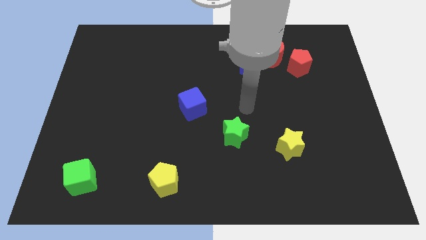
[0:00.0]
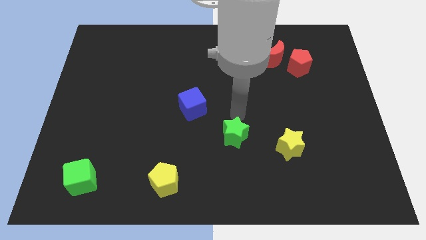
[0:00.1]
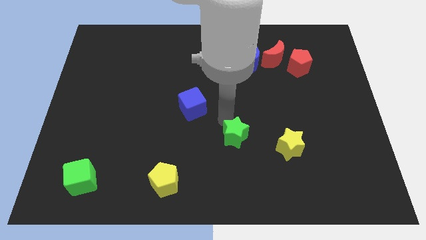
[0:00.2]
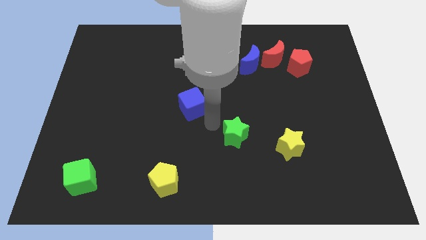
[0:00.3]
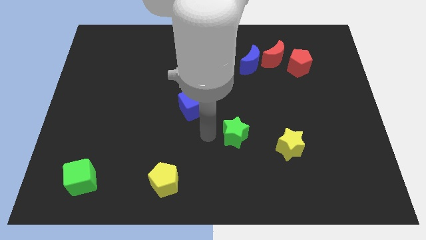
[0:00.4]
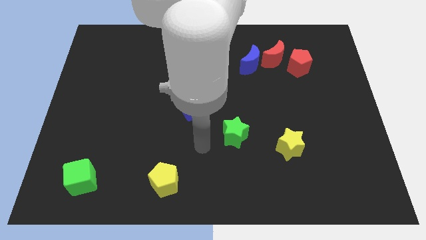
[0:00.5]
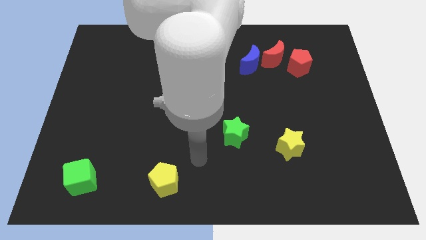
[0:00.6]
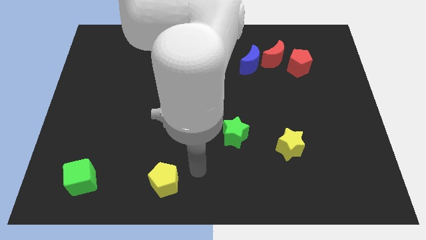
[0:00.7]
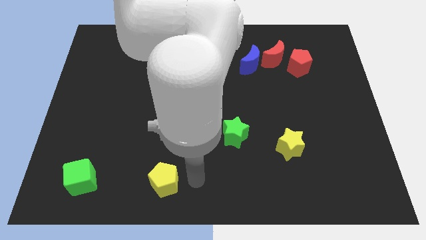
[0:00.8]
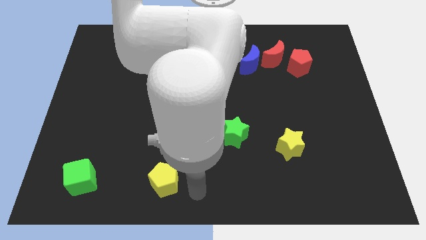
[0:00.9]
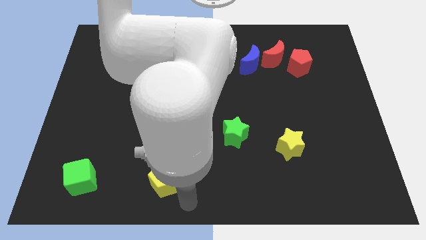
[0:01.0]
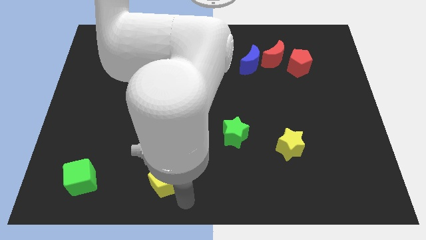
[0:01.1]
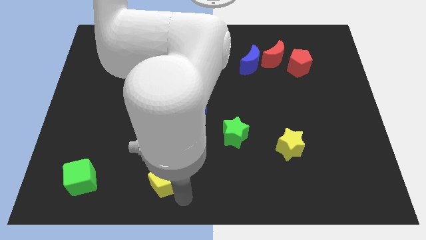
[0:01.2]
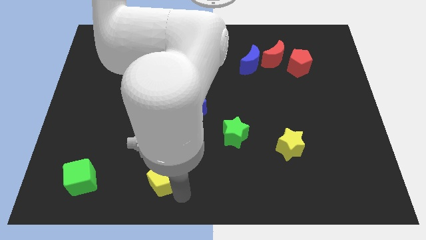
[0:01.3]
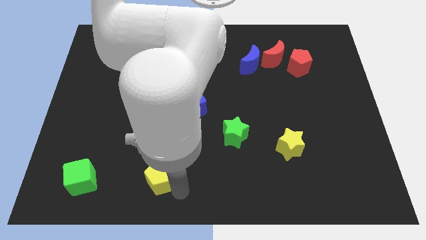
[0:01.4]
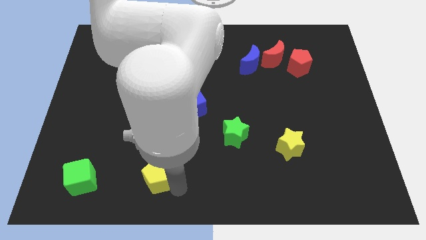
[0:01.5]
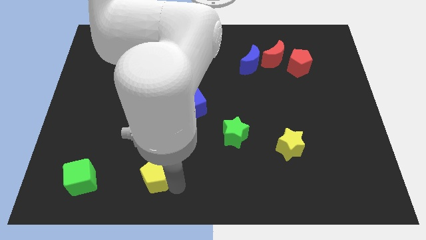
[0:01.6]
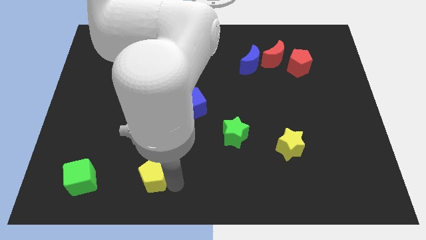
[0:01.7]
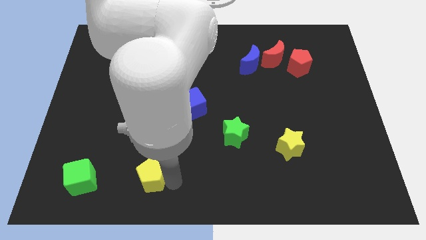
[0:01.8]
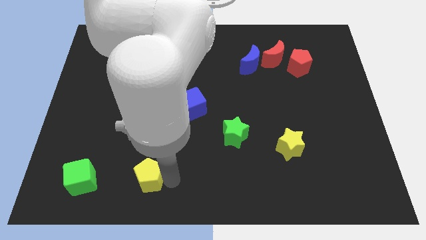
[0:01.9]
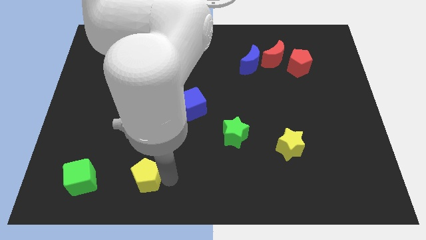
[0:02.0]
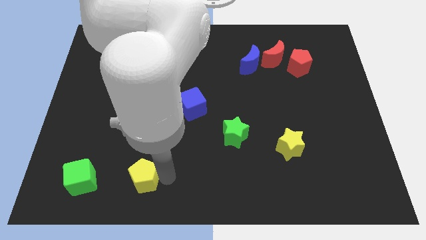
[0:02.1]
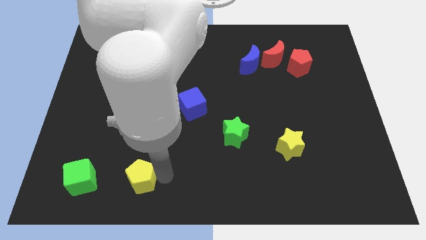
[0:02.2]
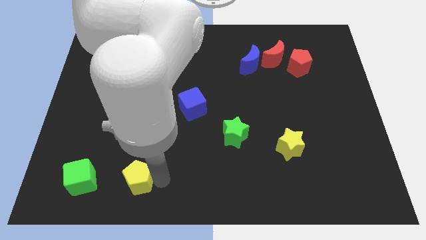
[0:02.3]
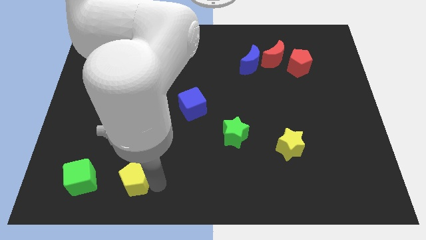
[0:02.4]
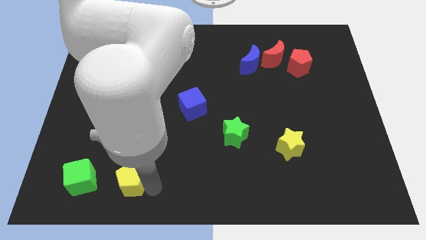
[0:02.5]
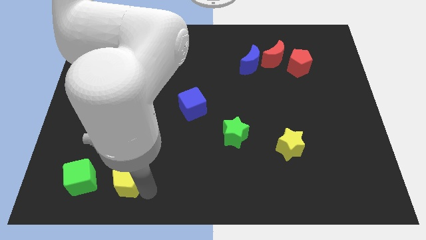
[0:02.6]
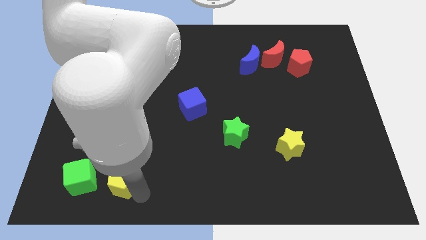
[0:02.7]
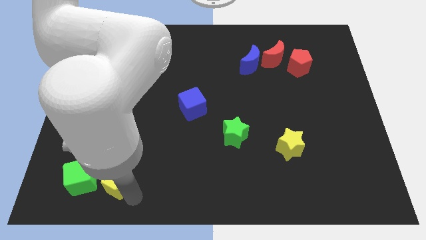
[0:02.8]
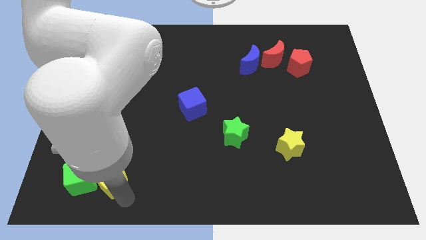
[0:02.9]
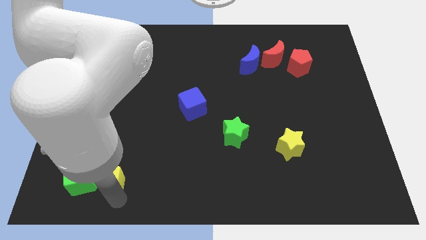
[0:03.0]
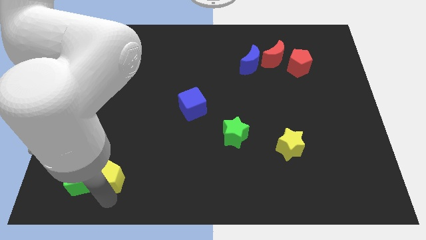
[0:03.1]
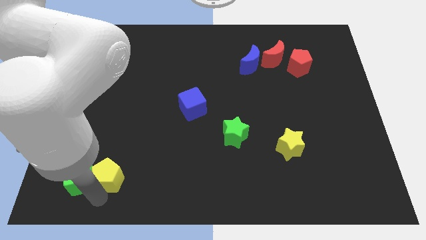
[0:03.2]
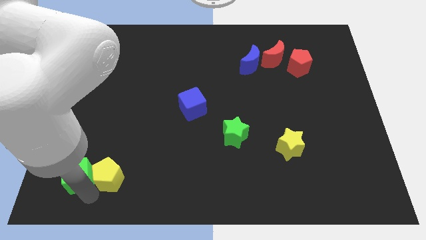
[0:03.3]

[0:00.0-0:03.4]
push the yellow pentagon slightly up and to the left

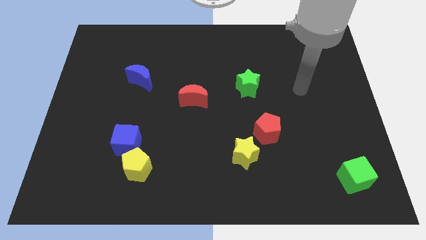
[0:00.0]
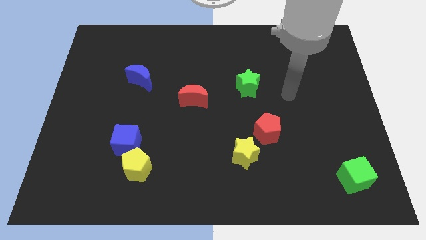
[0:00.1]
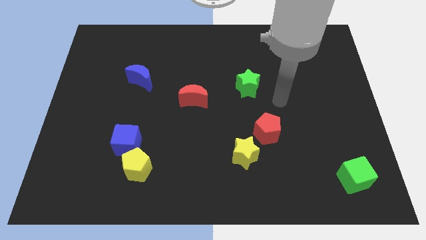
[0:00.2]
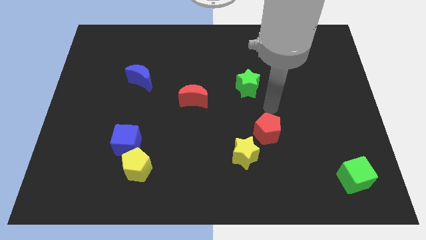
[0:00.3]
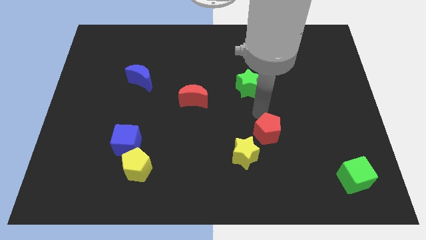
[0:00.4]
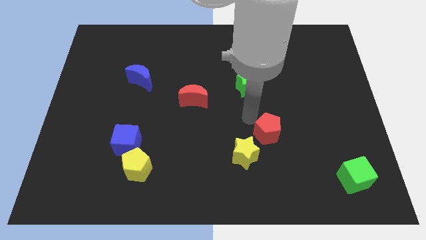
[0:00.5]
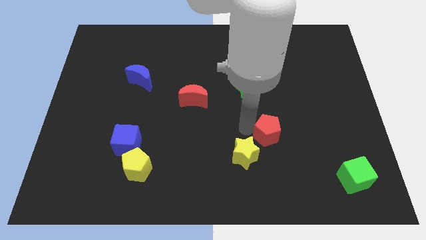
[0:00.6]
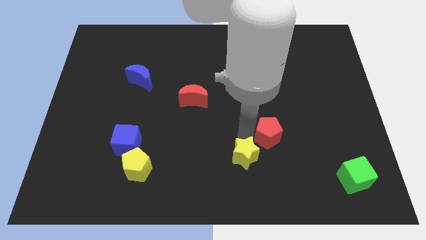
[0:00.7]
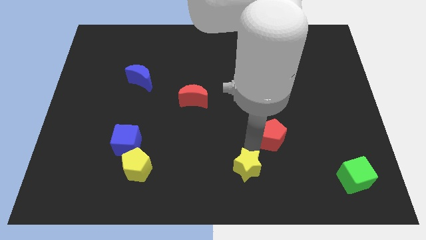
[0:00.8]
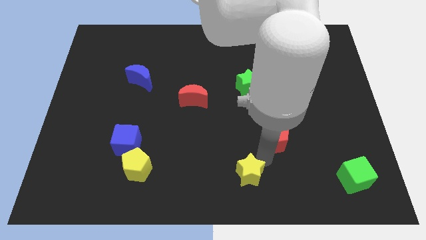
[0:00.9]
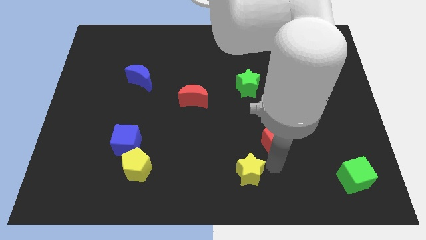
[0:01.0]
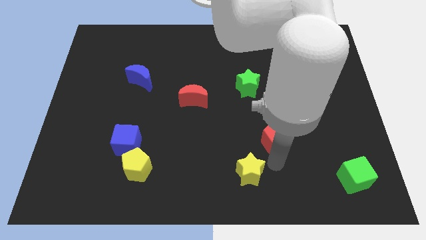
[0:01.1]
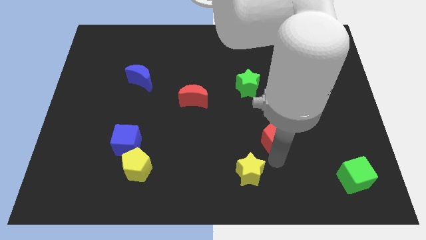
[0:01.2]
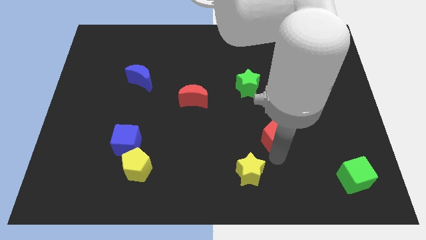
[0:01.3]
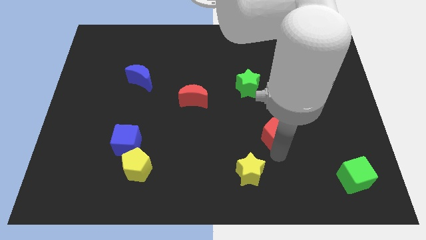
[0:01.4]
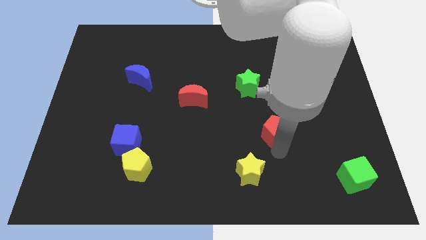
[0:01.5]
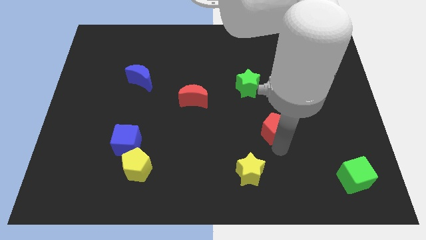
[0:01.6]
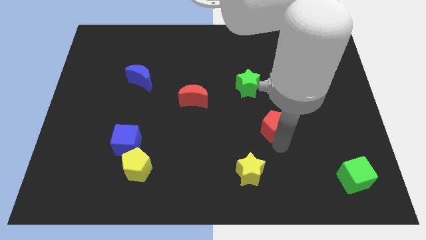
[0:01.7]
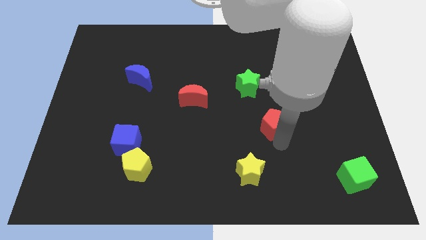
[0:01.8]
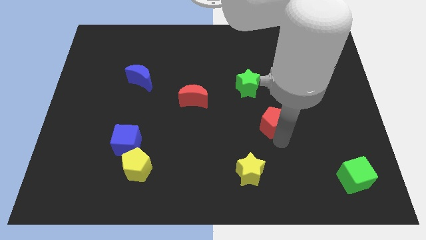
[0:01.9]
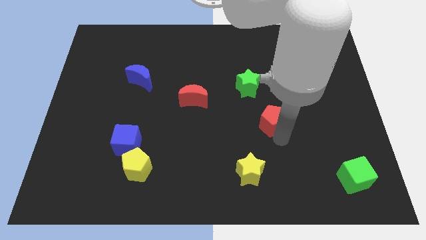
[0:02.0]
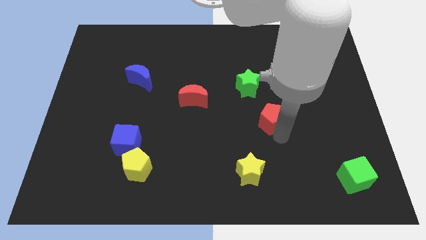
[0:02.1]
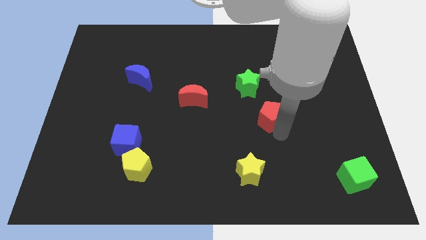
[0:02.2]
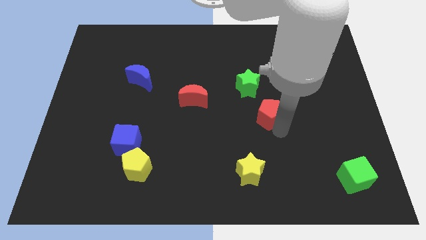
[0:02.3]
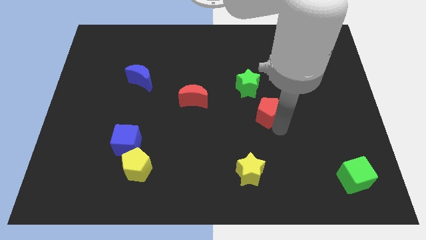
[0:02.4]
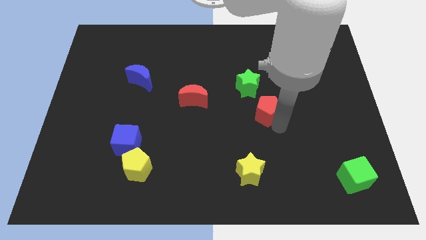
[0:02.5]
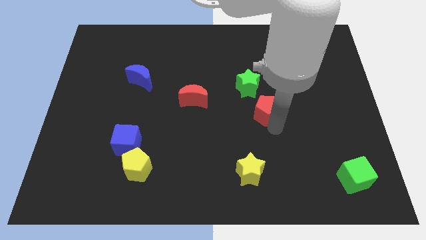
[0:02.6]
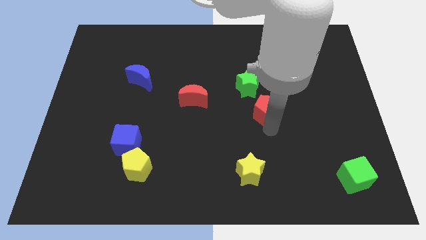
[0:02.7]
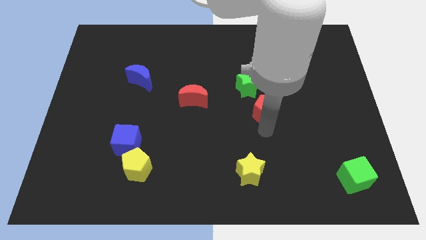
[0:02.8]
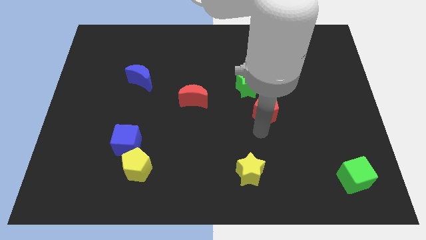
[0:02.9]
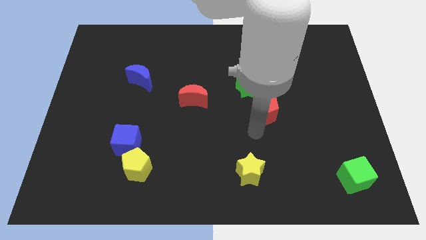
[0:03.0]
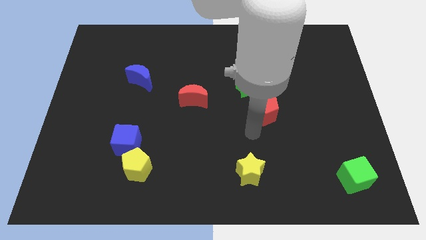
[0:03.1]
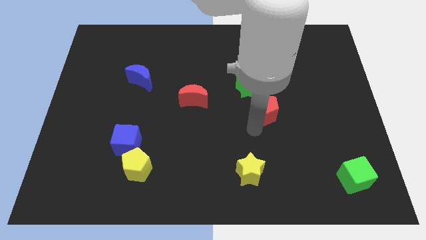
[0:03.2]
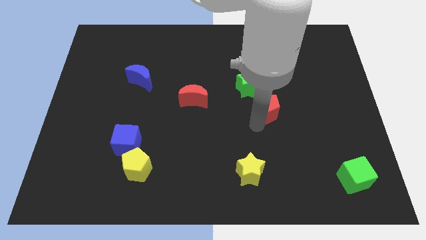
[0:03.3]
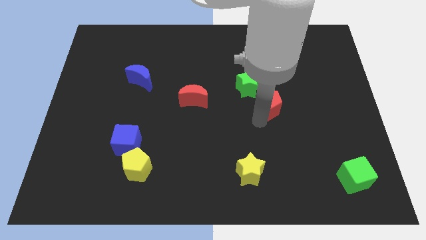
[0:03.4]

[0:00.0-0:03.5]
slightly slide the red pentagon up

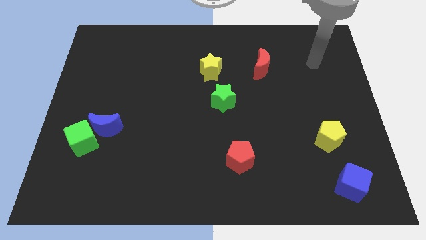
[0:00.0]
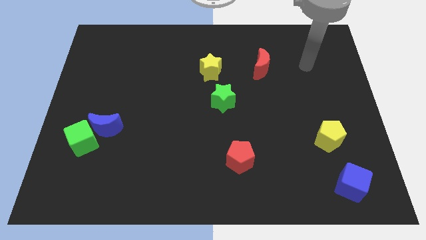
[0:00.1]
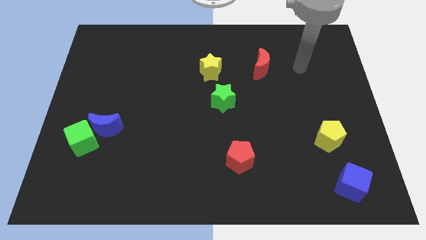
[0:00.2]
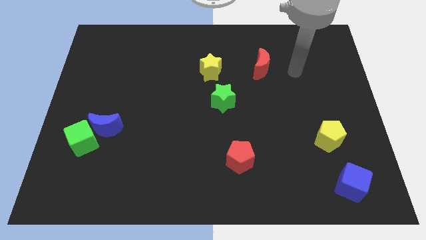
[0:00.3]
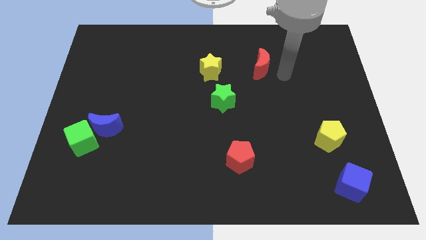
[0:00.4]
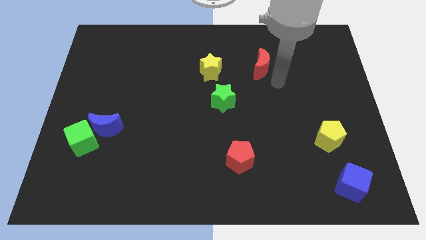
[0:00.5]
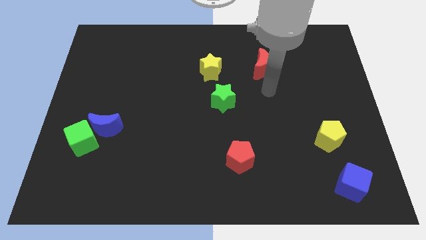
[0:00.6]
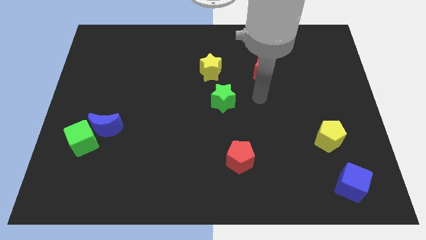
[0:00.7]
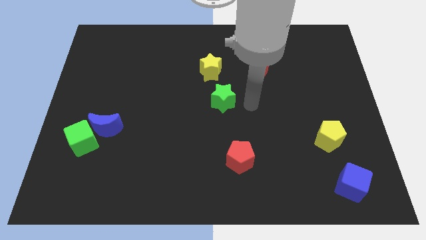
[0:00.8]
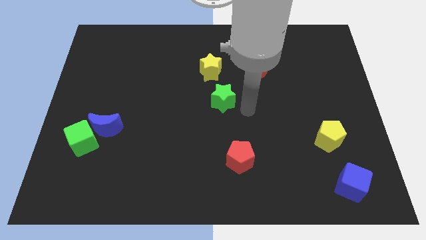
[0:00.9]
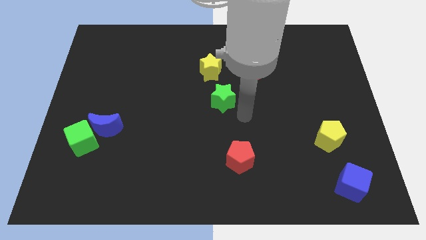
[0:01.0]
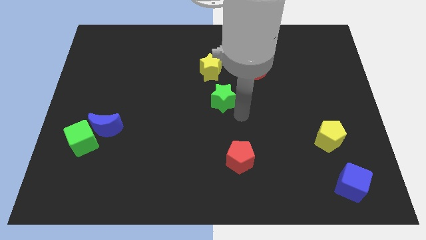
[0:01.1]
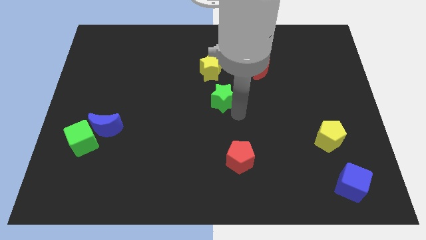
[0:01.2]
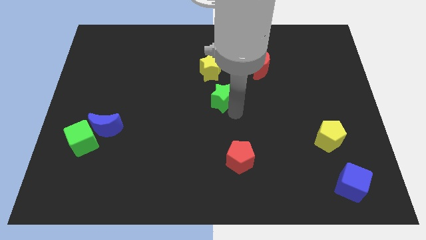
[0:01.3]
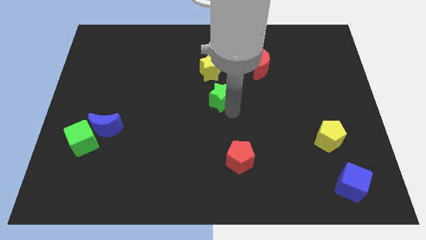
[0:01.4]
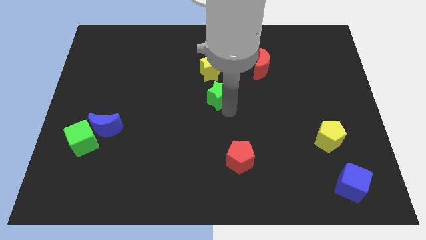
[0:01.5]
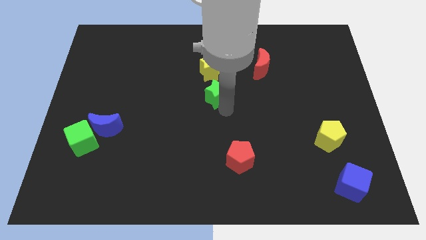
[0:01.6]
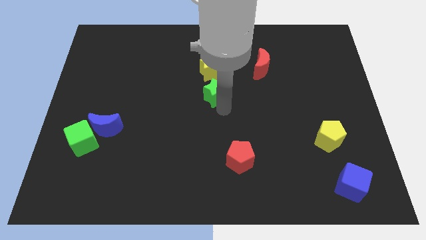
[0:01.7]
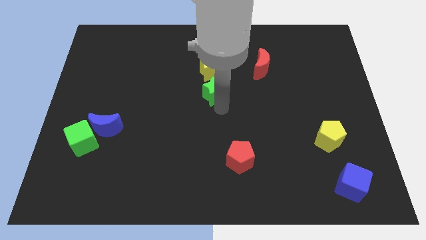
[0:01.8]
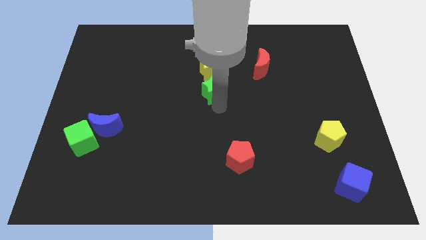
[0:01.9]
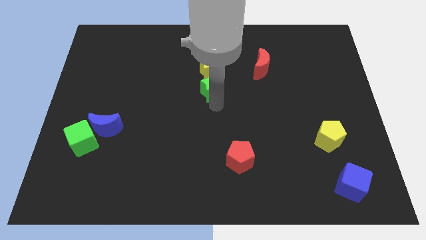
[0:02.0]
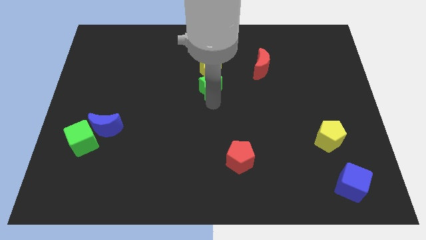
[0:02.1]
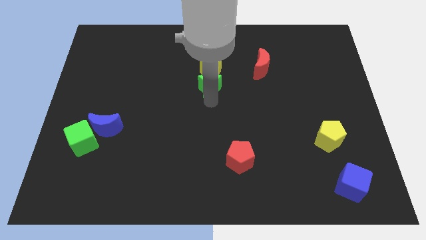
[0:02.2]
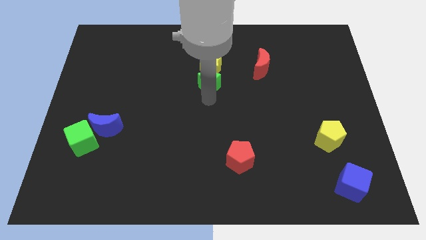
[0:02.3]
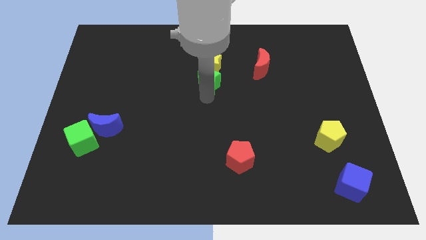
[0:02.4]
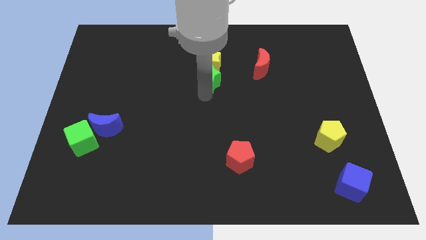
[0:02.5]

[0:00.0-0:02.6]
move the green star diagonally up and to the left a little
